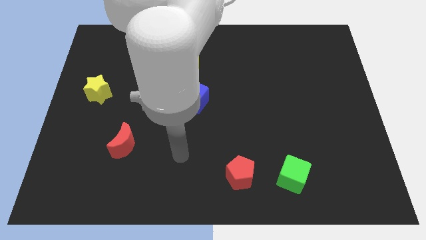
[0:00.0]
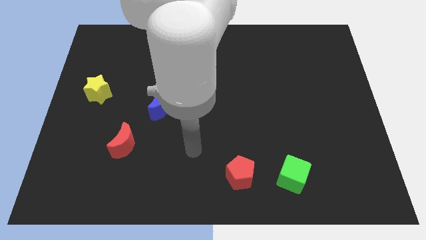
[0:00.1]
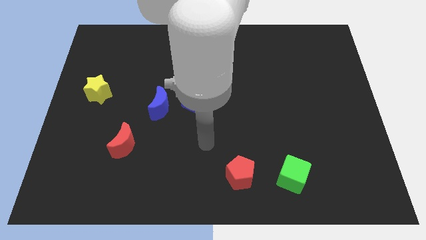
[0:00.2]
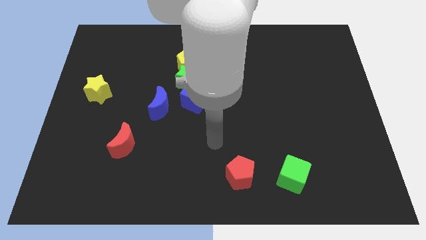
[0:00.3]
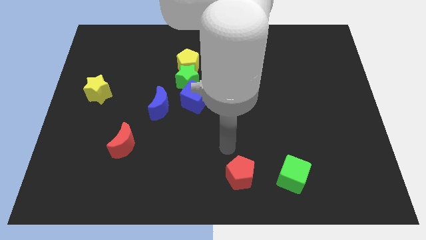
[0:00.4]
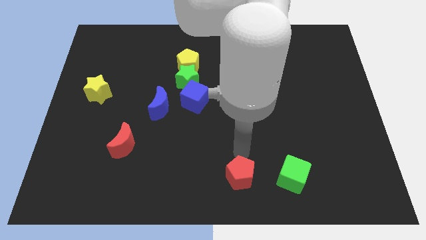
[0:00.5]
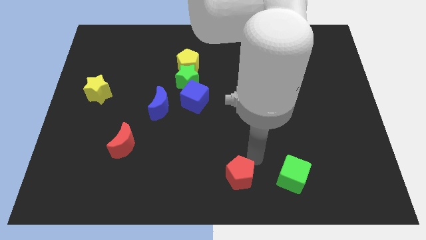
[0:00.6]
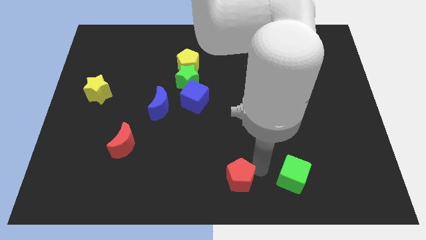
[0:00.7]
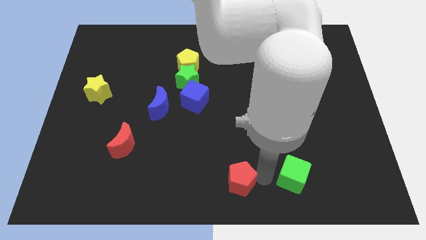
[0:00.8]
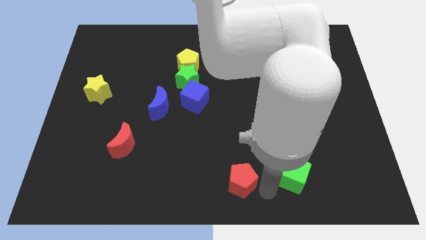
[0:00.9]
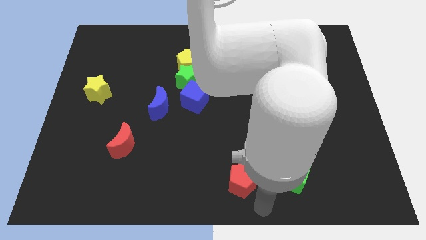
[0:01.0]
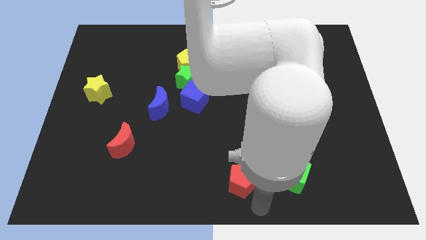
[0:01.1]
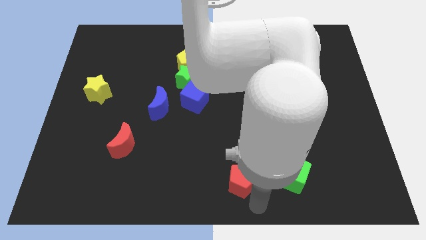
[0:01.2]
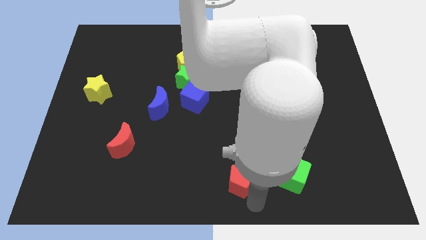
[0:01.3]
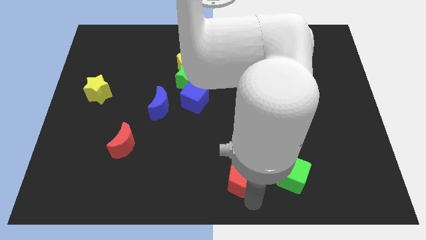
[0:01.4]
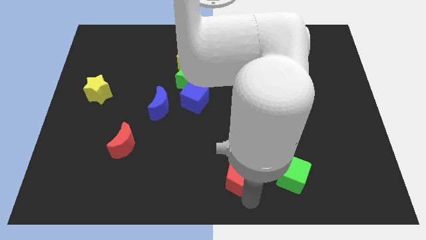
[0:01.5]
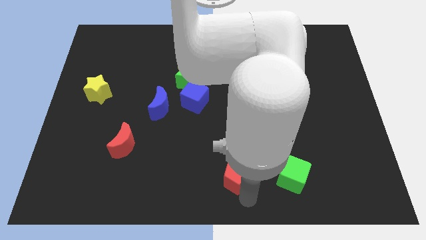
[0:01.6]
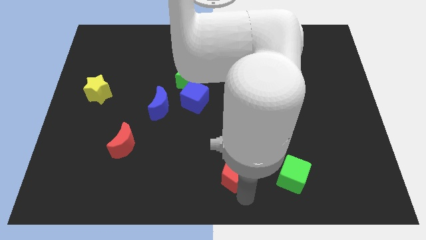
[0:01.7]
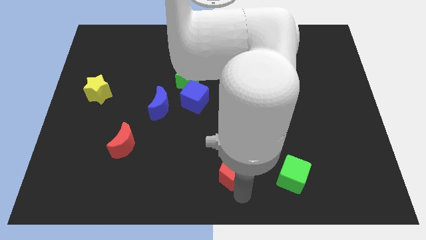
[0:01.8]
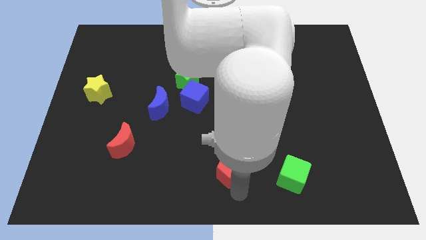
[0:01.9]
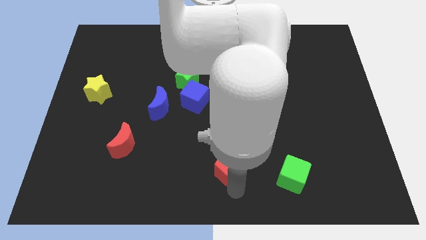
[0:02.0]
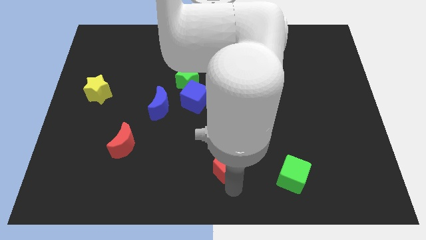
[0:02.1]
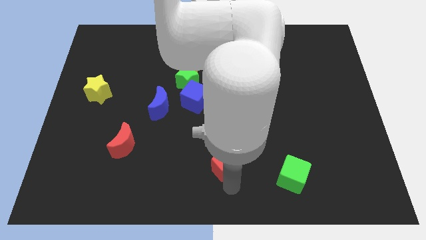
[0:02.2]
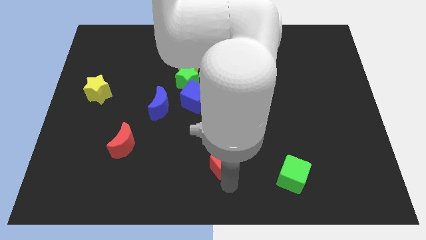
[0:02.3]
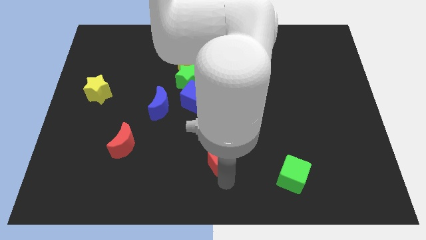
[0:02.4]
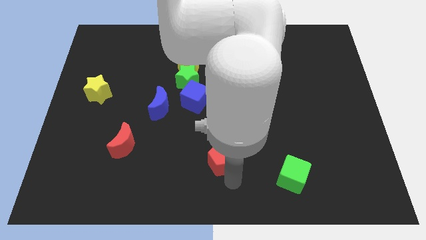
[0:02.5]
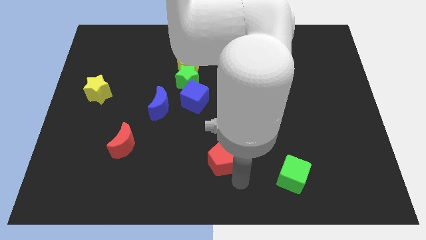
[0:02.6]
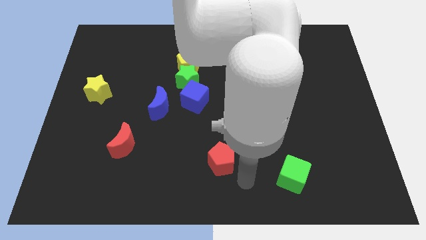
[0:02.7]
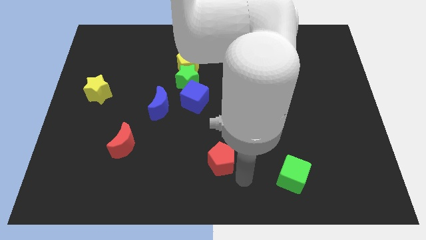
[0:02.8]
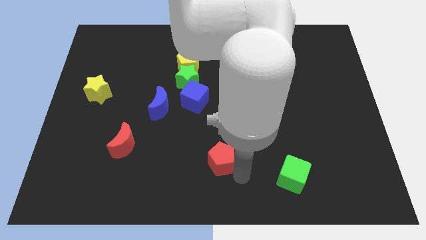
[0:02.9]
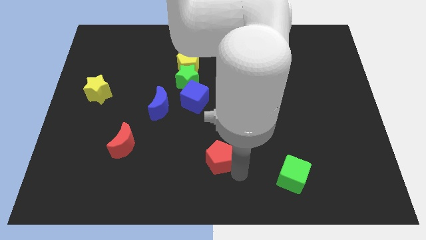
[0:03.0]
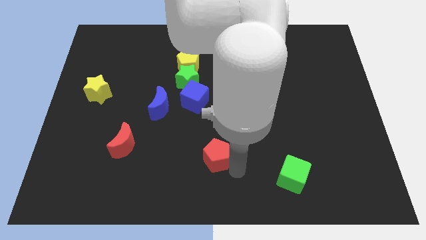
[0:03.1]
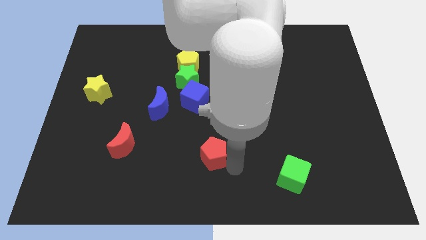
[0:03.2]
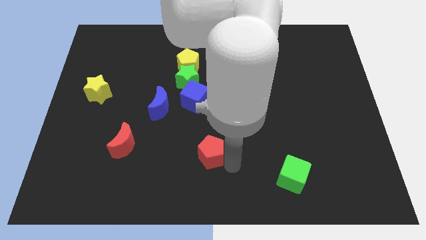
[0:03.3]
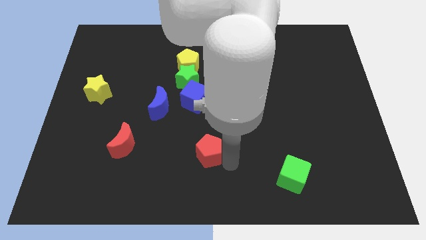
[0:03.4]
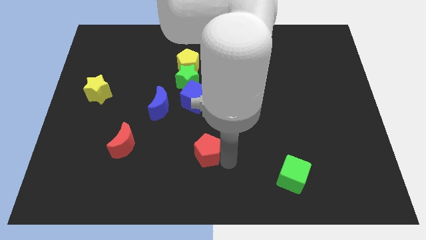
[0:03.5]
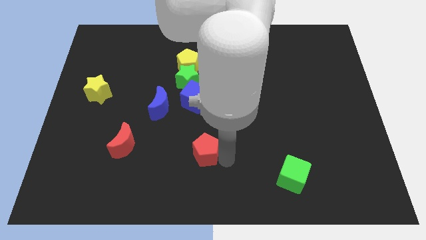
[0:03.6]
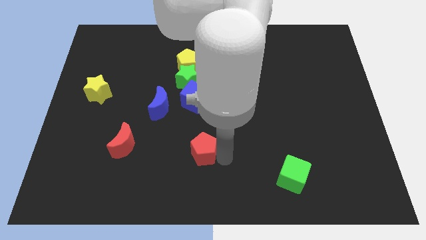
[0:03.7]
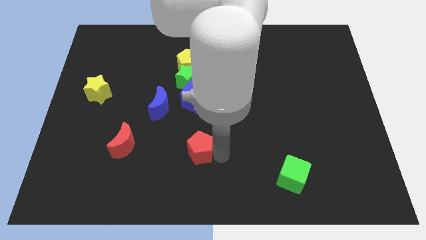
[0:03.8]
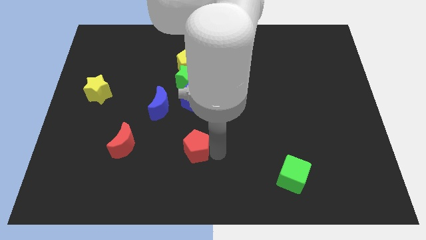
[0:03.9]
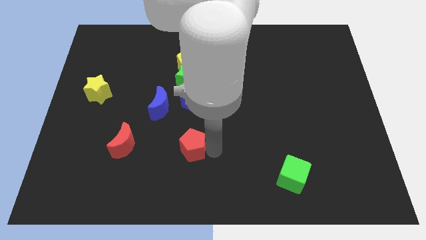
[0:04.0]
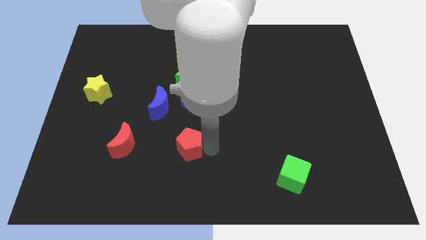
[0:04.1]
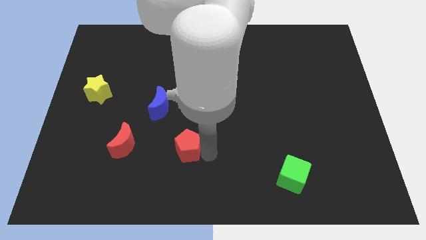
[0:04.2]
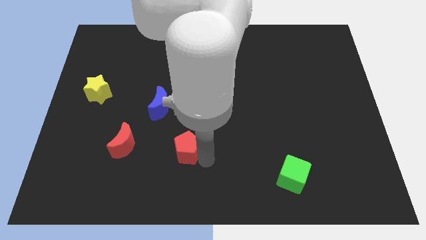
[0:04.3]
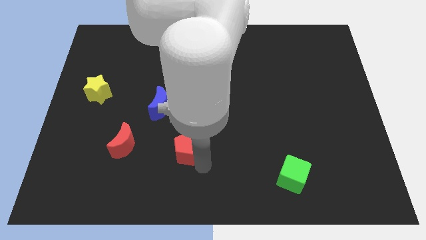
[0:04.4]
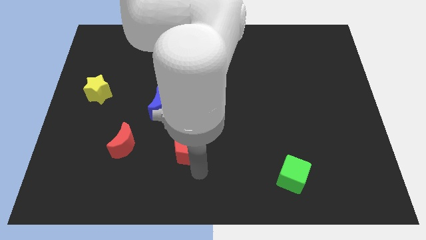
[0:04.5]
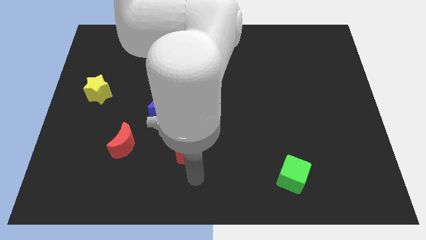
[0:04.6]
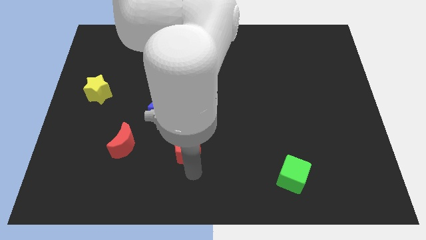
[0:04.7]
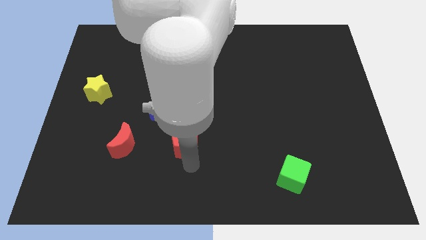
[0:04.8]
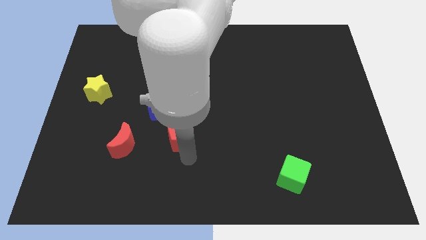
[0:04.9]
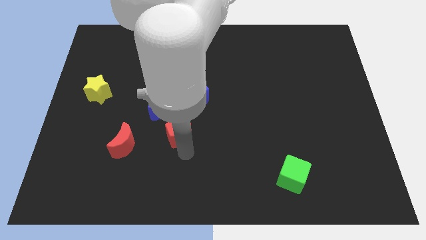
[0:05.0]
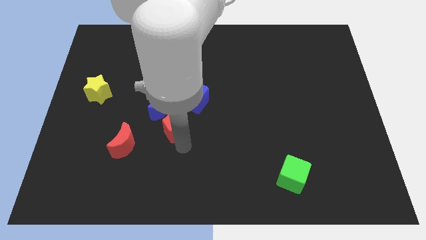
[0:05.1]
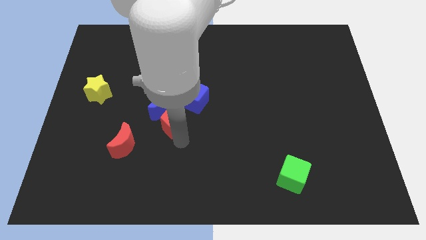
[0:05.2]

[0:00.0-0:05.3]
put the red pentagon close to the blue moon

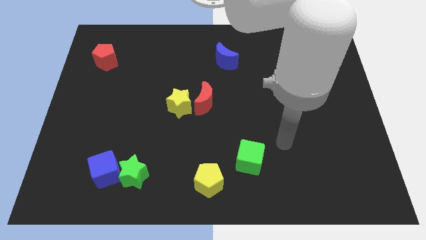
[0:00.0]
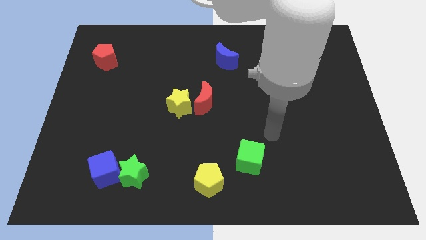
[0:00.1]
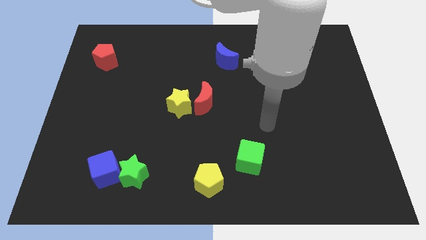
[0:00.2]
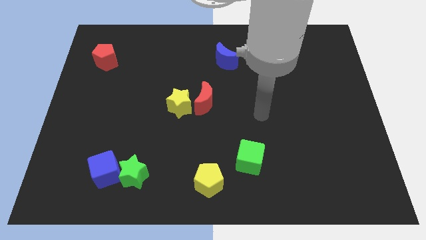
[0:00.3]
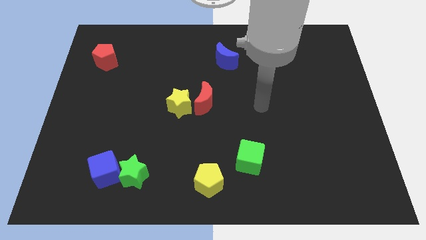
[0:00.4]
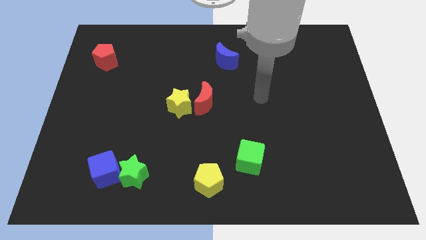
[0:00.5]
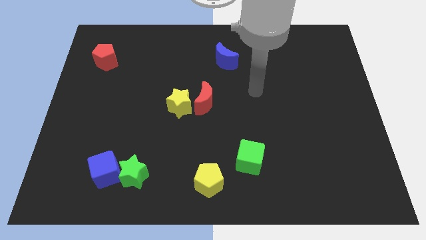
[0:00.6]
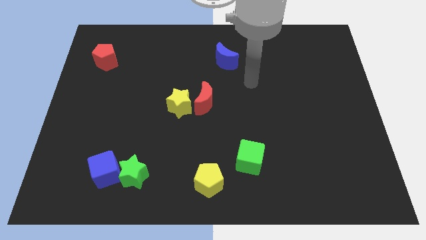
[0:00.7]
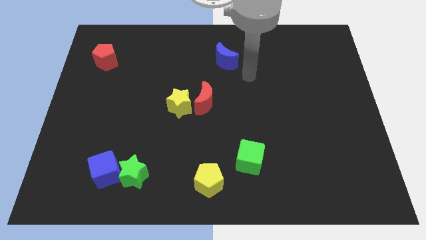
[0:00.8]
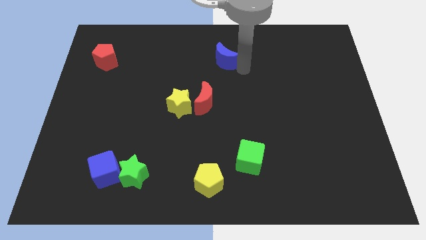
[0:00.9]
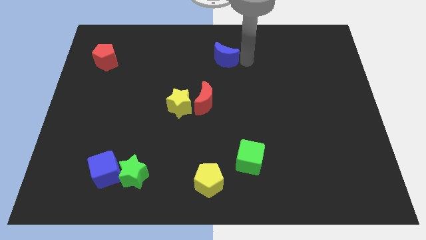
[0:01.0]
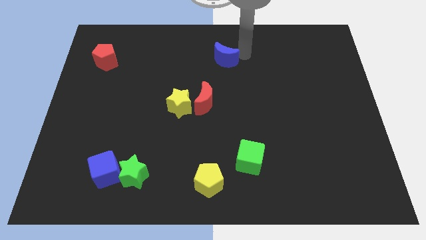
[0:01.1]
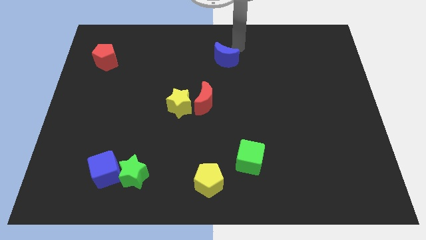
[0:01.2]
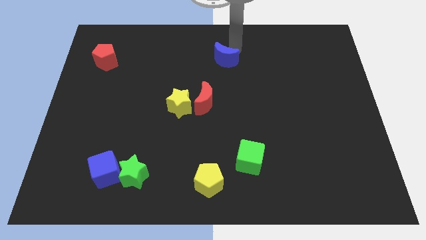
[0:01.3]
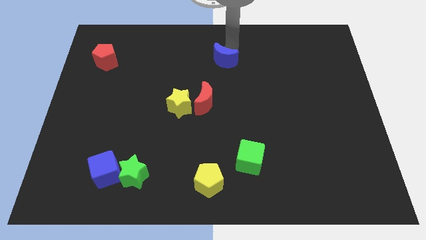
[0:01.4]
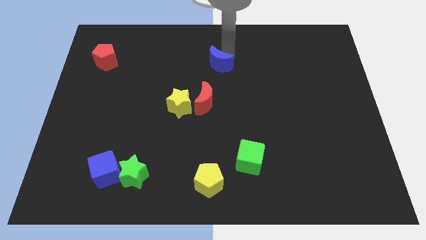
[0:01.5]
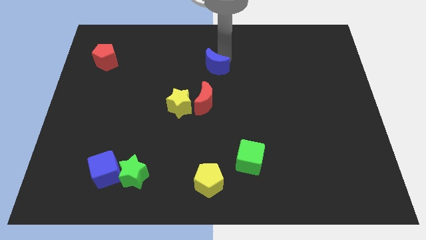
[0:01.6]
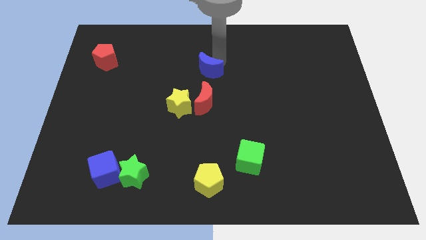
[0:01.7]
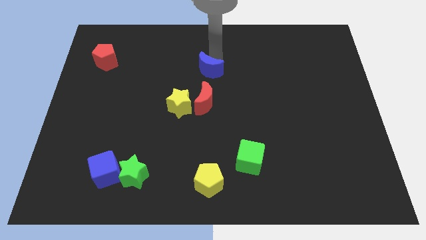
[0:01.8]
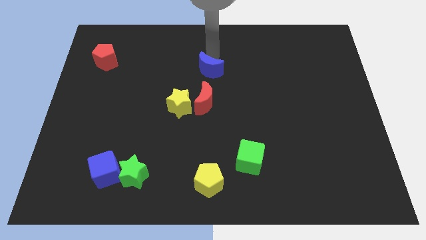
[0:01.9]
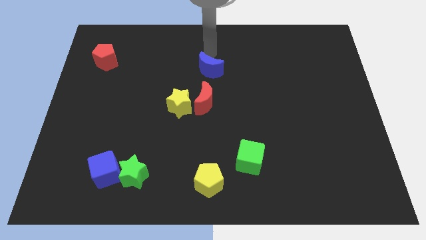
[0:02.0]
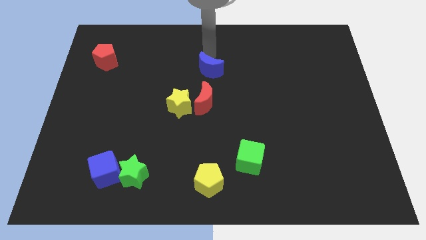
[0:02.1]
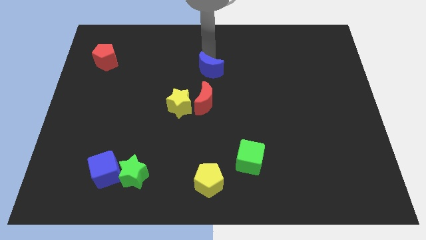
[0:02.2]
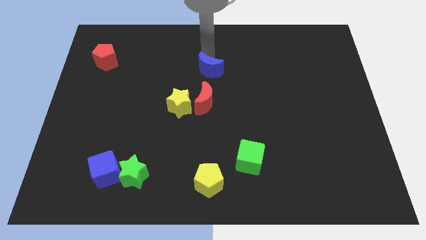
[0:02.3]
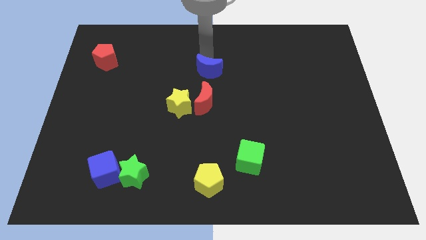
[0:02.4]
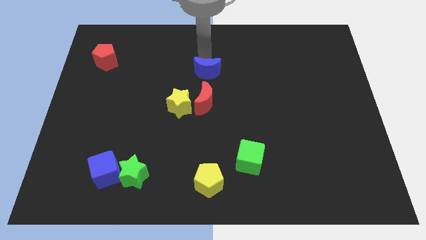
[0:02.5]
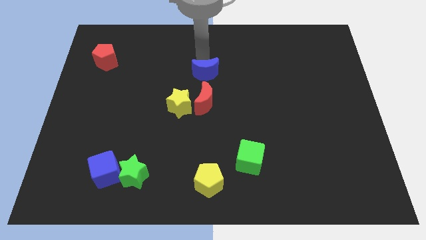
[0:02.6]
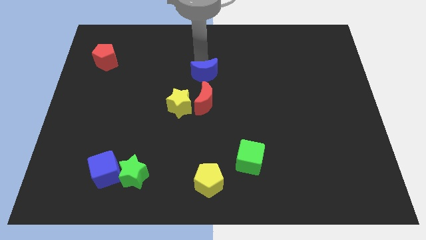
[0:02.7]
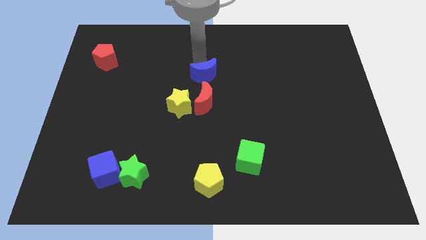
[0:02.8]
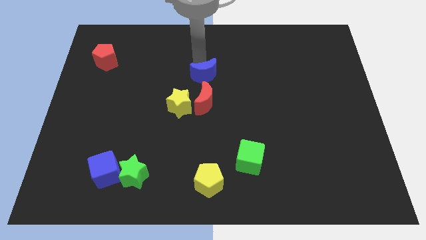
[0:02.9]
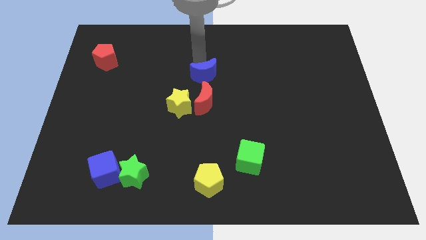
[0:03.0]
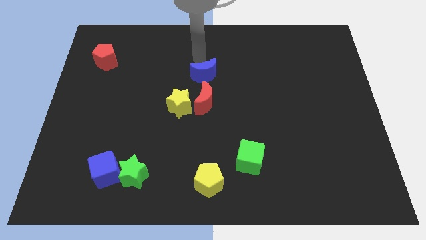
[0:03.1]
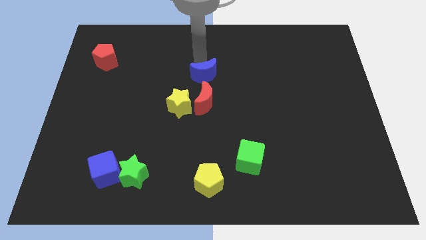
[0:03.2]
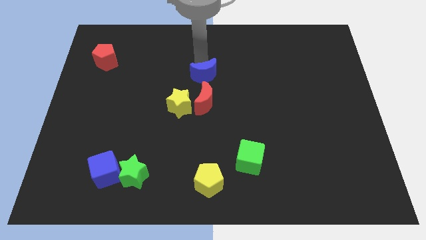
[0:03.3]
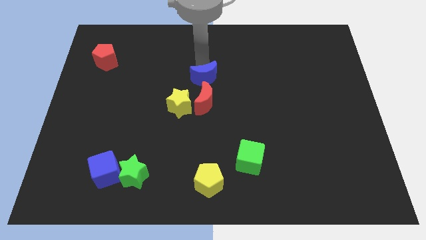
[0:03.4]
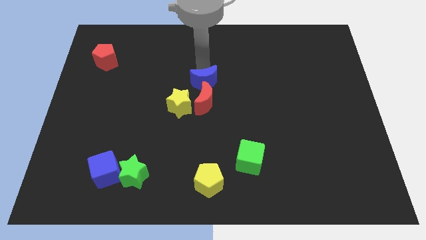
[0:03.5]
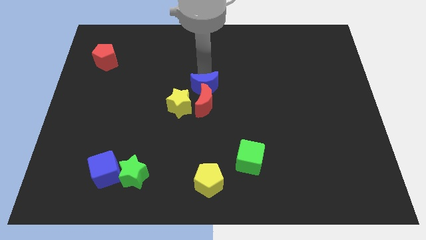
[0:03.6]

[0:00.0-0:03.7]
put the blue moon next to the red moon
